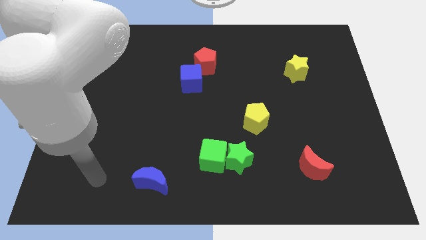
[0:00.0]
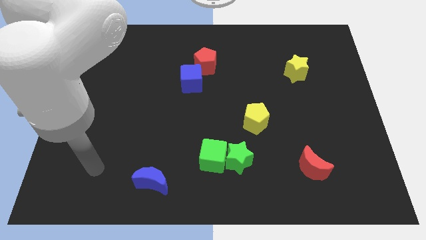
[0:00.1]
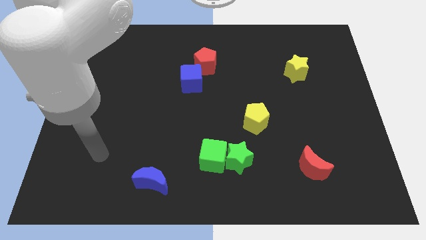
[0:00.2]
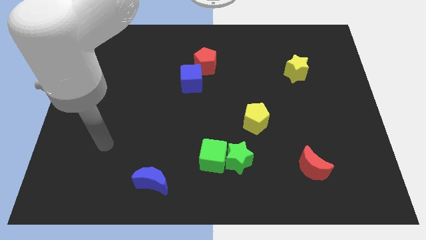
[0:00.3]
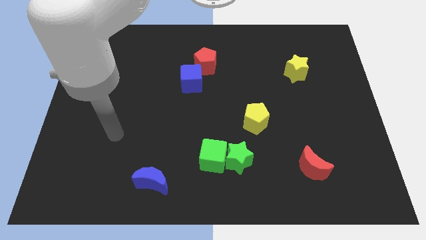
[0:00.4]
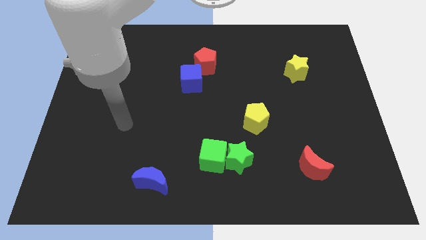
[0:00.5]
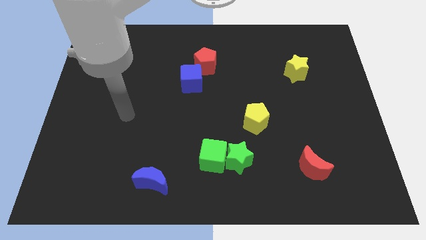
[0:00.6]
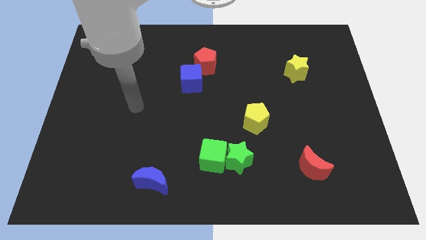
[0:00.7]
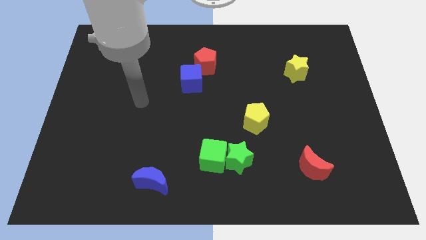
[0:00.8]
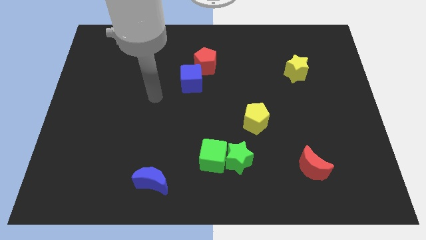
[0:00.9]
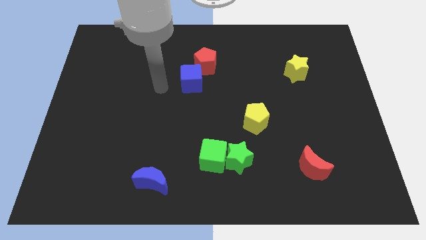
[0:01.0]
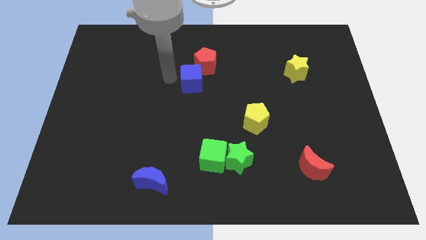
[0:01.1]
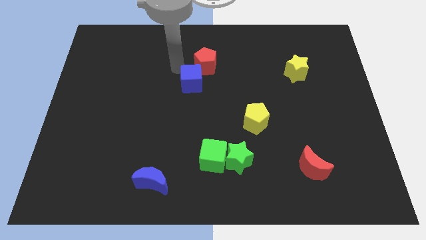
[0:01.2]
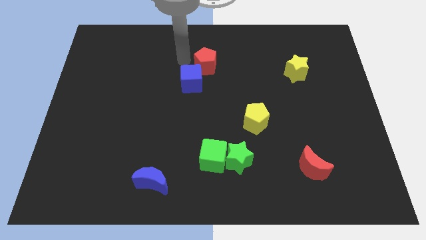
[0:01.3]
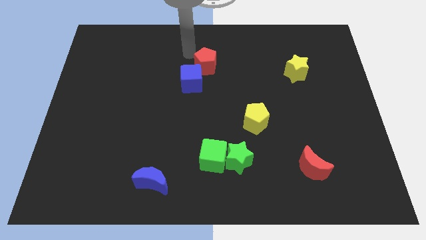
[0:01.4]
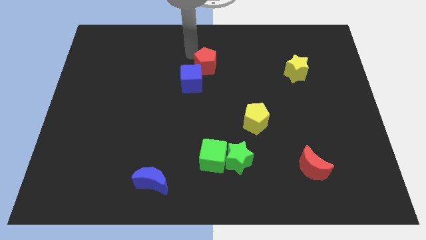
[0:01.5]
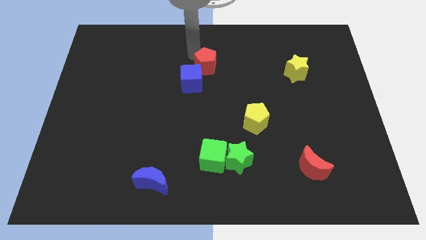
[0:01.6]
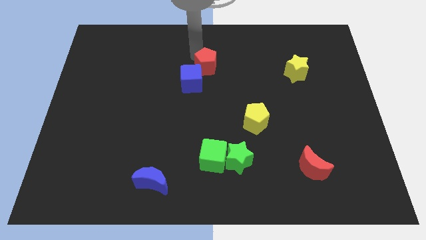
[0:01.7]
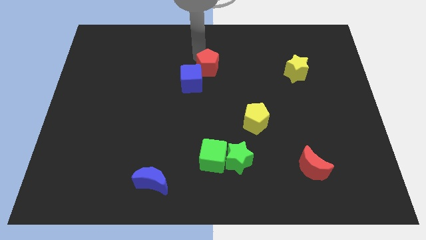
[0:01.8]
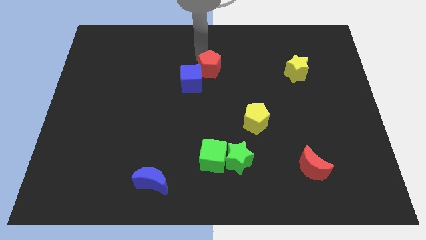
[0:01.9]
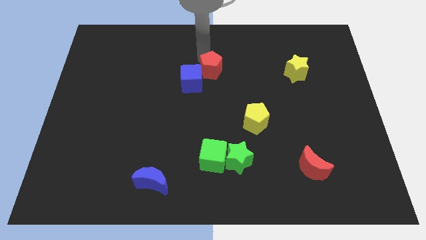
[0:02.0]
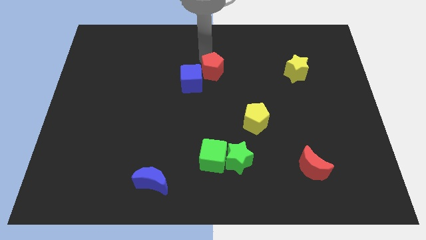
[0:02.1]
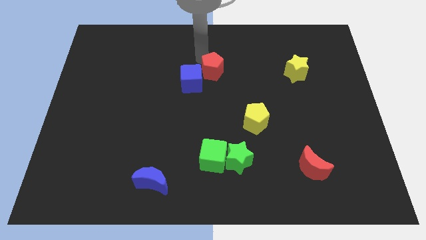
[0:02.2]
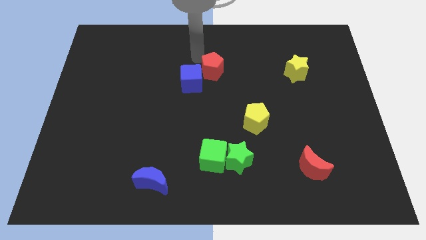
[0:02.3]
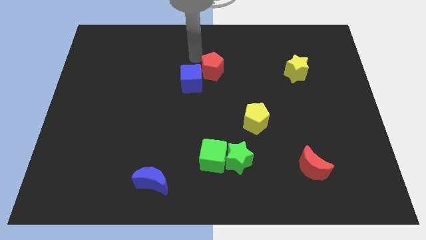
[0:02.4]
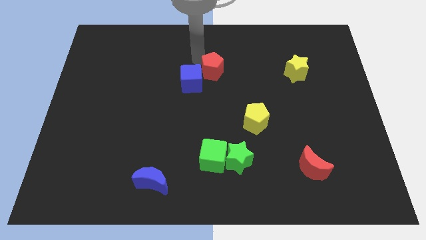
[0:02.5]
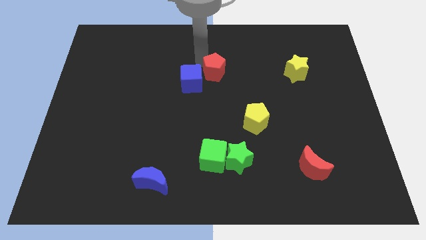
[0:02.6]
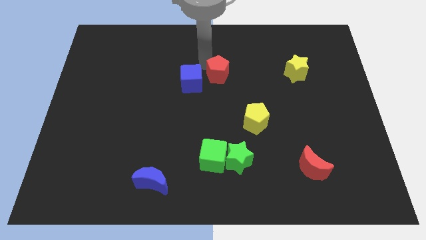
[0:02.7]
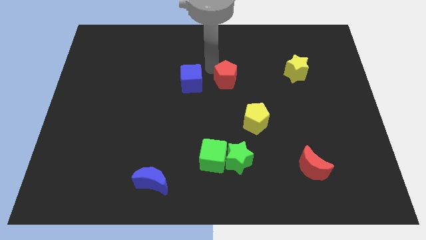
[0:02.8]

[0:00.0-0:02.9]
push the red pentagon downwards and right diagonally somewhat

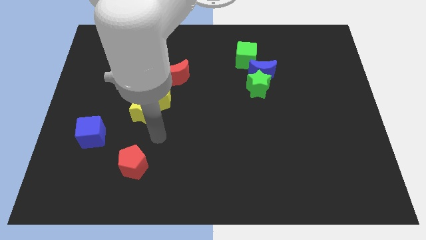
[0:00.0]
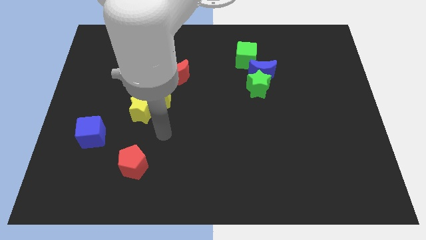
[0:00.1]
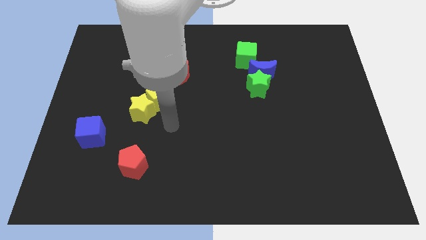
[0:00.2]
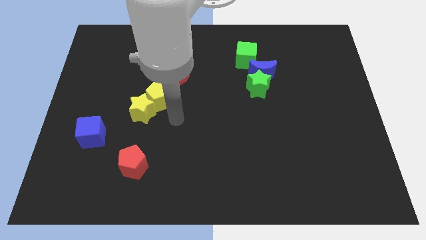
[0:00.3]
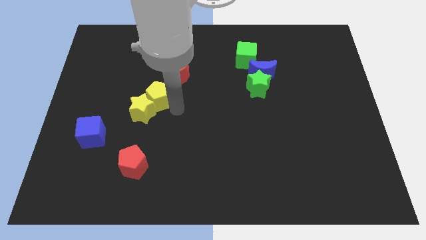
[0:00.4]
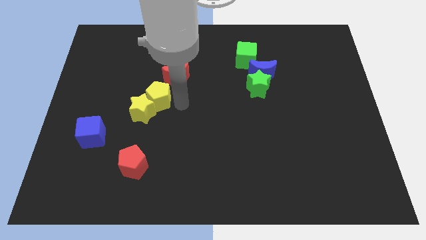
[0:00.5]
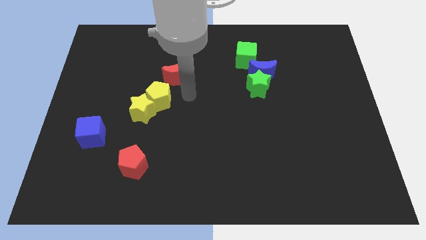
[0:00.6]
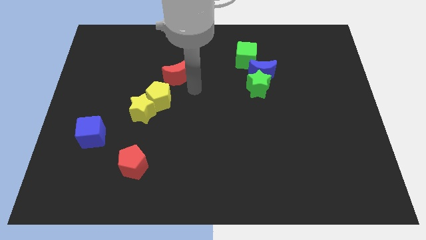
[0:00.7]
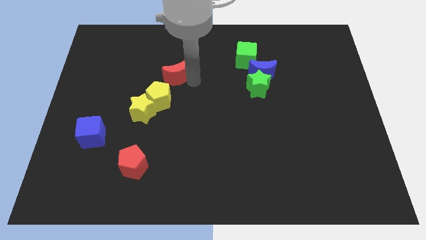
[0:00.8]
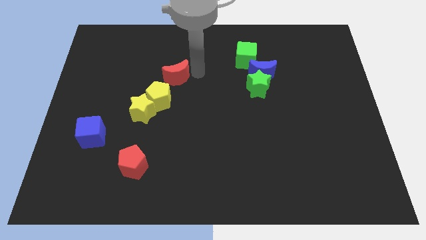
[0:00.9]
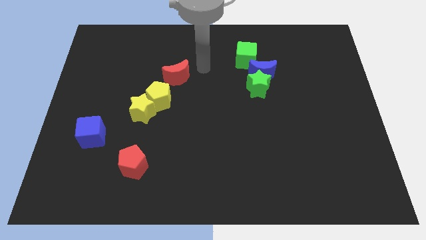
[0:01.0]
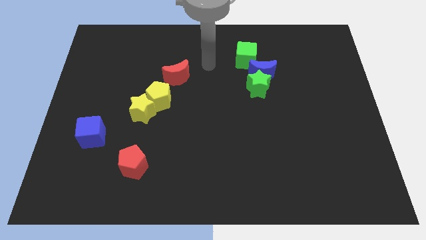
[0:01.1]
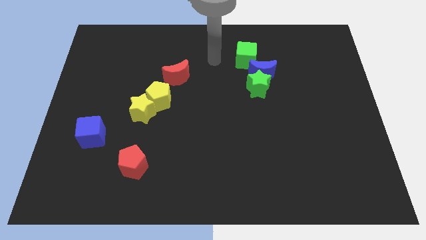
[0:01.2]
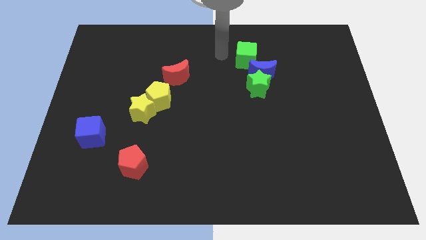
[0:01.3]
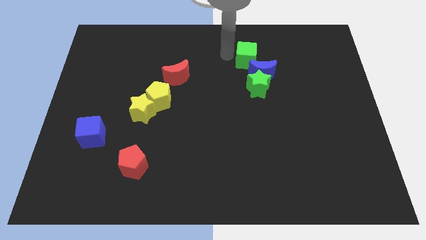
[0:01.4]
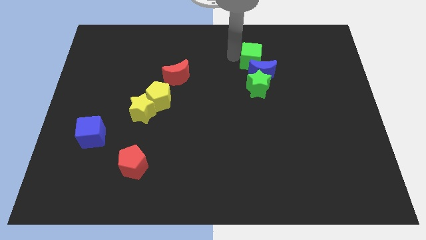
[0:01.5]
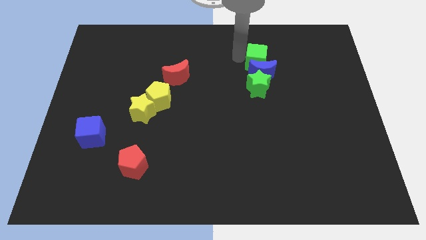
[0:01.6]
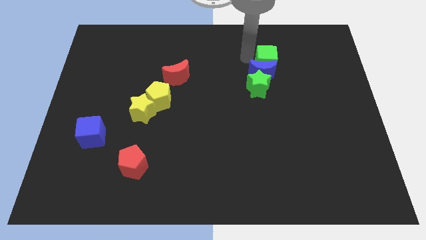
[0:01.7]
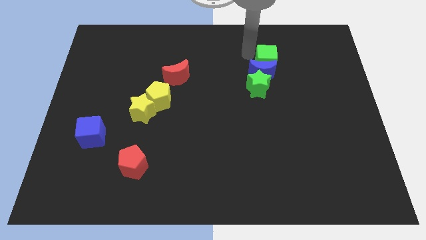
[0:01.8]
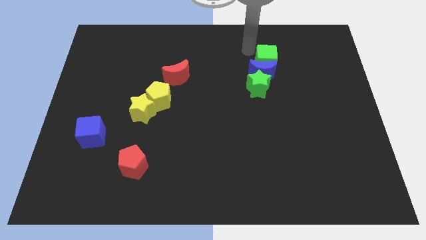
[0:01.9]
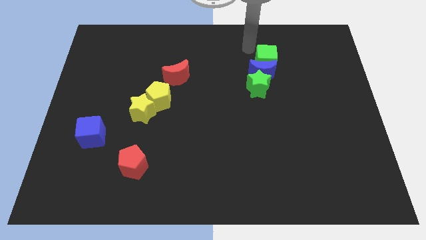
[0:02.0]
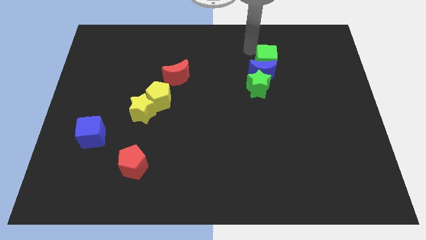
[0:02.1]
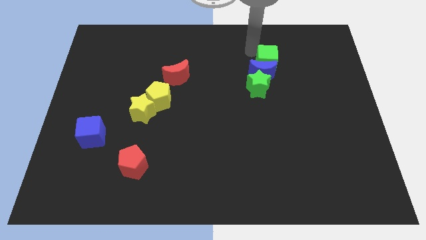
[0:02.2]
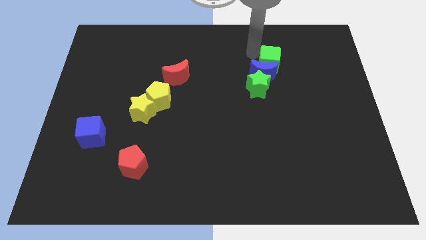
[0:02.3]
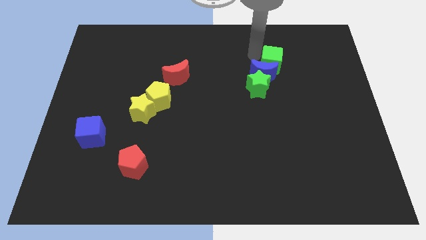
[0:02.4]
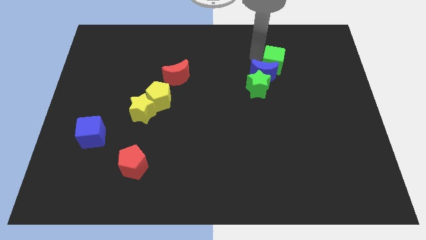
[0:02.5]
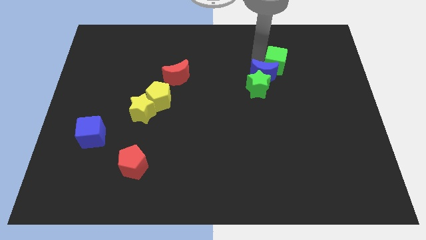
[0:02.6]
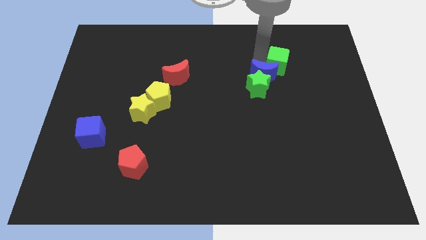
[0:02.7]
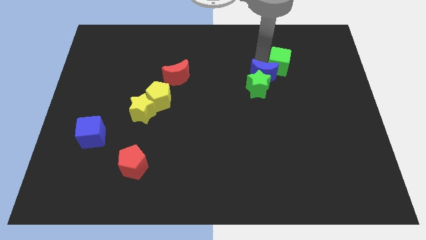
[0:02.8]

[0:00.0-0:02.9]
slide the green cube a bit down and then right

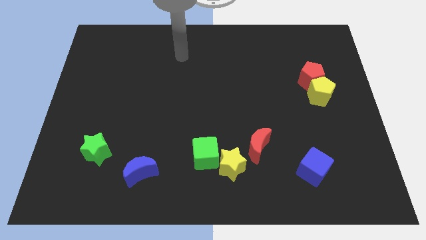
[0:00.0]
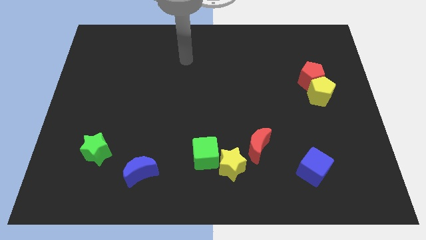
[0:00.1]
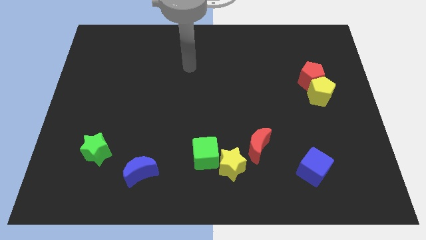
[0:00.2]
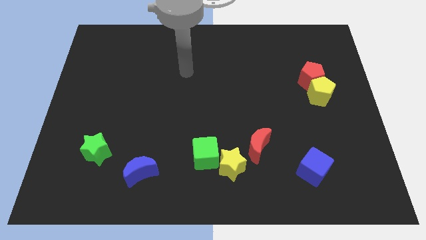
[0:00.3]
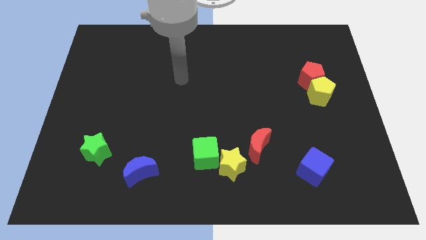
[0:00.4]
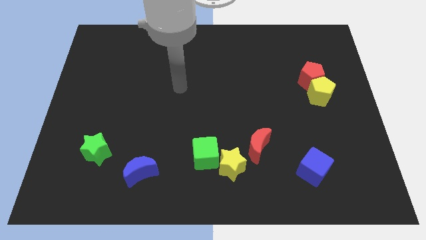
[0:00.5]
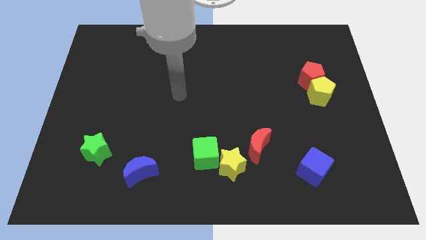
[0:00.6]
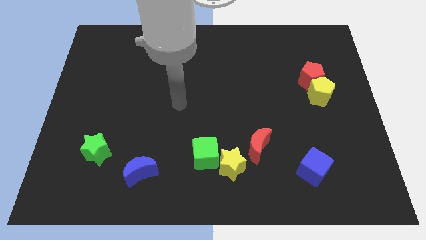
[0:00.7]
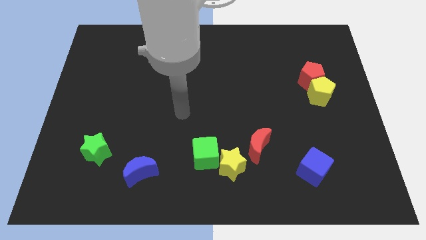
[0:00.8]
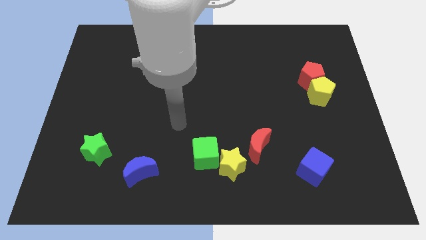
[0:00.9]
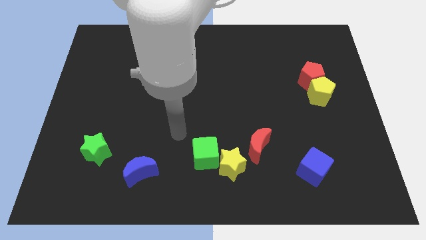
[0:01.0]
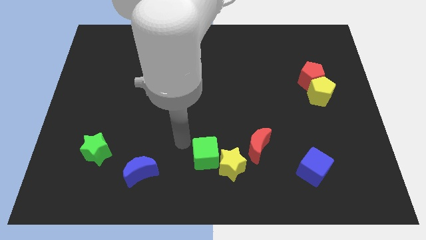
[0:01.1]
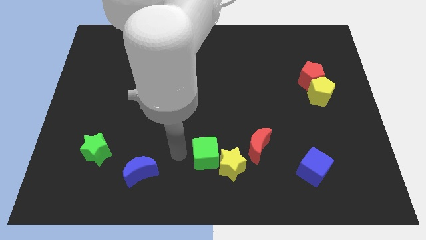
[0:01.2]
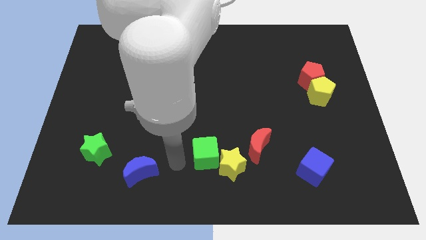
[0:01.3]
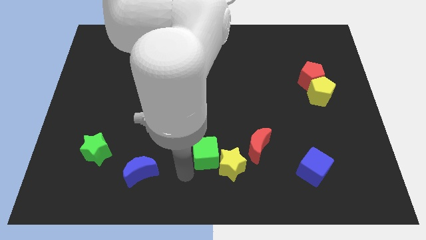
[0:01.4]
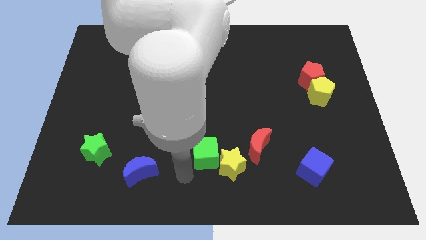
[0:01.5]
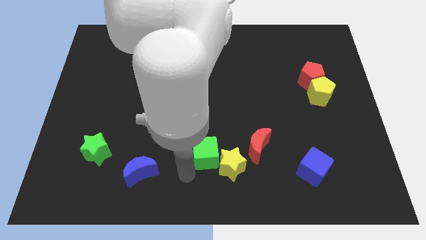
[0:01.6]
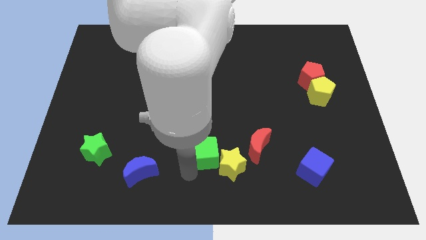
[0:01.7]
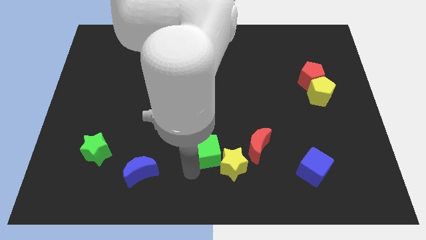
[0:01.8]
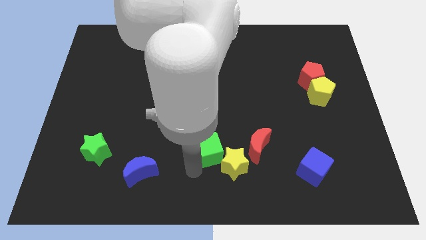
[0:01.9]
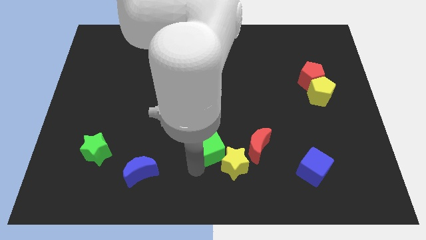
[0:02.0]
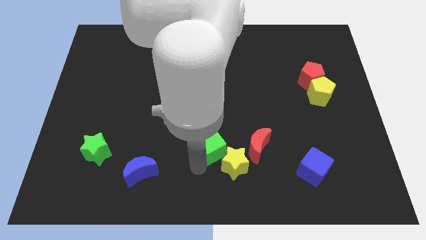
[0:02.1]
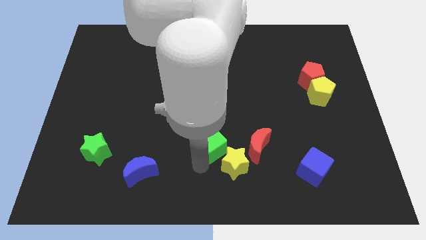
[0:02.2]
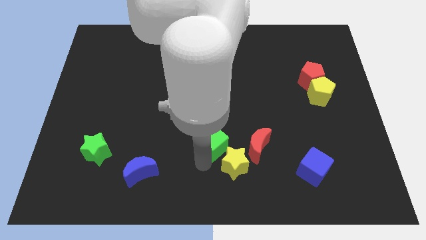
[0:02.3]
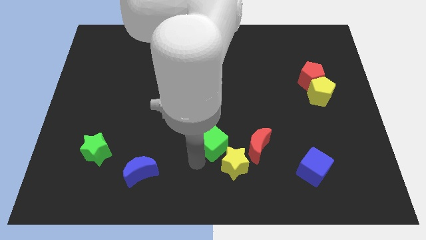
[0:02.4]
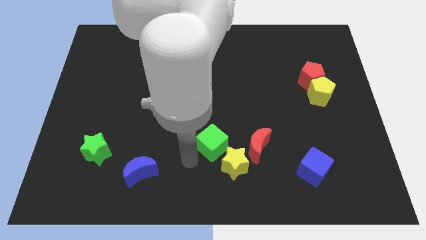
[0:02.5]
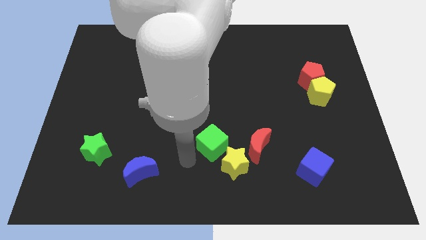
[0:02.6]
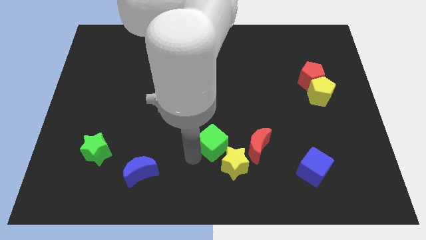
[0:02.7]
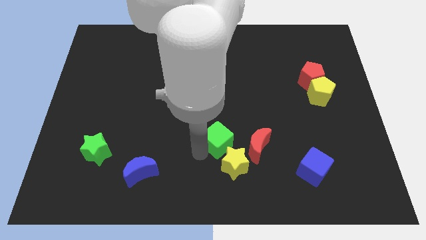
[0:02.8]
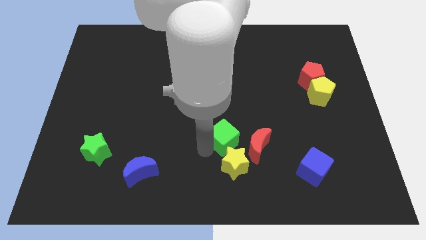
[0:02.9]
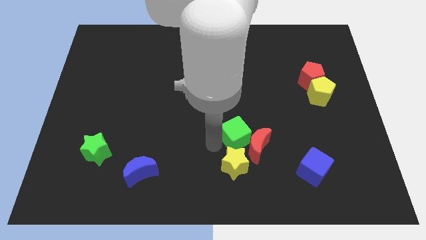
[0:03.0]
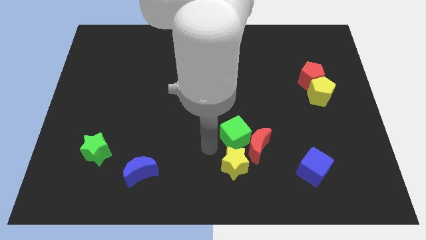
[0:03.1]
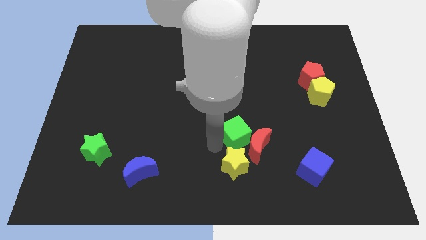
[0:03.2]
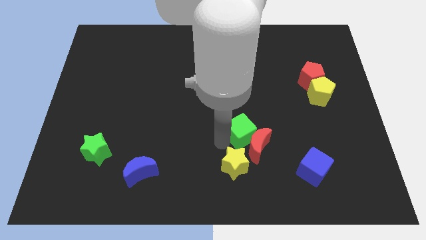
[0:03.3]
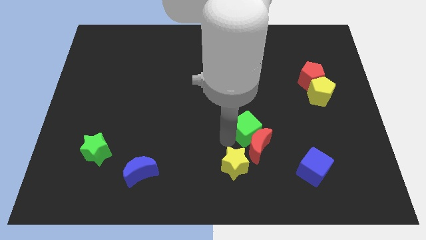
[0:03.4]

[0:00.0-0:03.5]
slightly slide the green cube right
